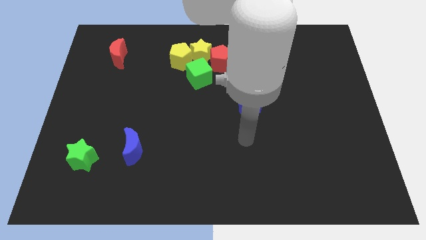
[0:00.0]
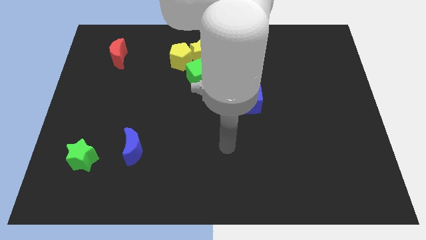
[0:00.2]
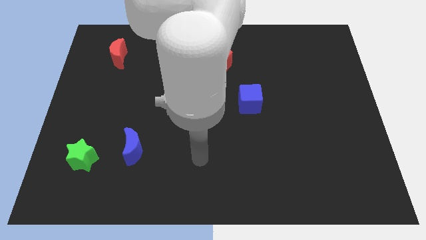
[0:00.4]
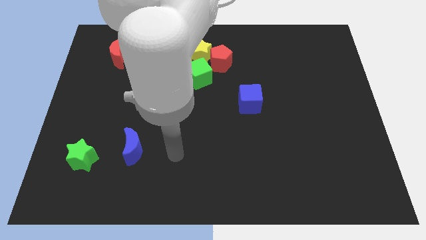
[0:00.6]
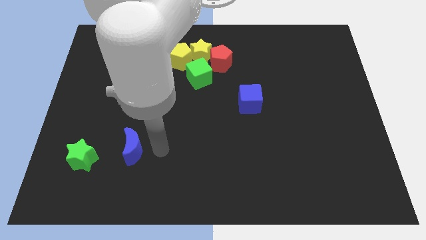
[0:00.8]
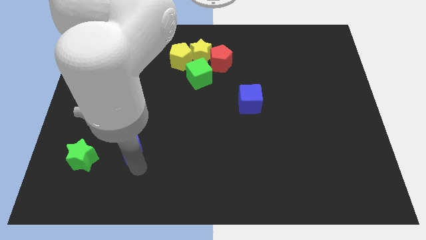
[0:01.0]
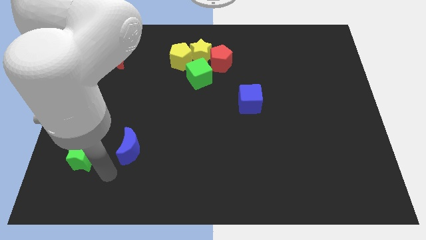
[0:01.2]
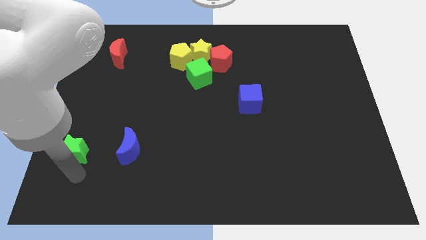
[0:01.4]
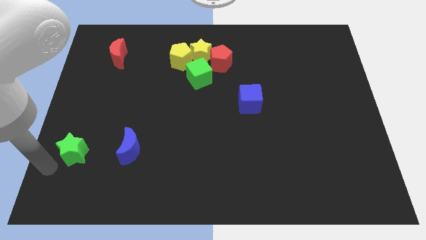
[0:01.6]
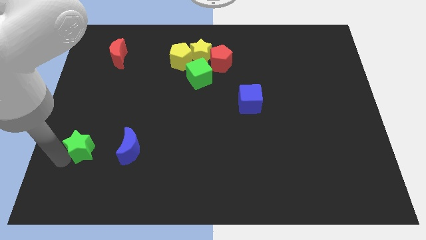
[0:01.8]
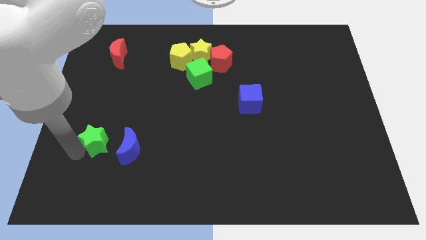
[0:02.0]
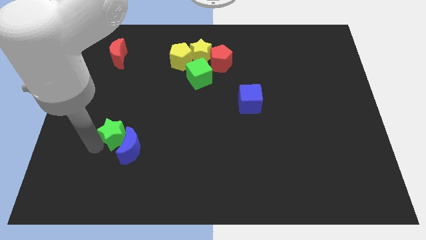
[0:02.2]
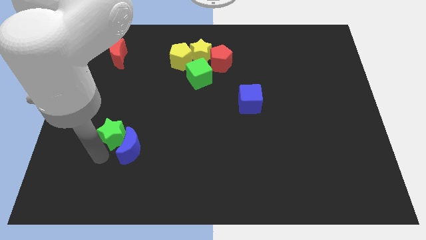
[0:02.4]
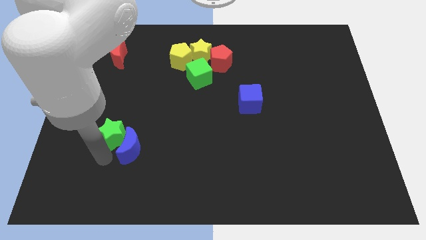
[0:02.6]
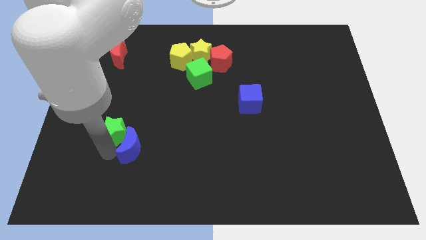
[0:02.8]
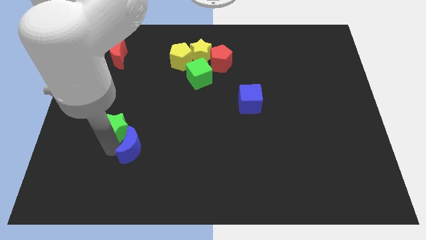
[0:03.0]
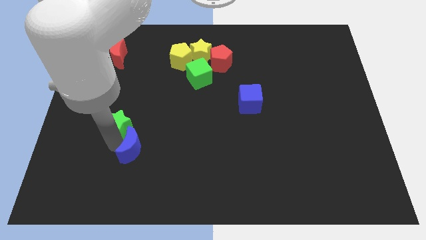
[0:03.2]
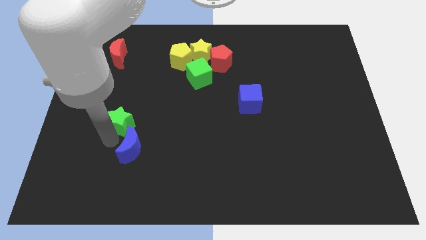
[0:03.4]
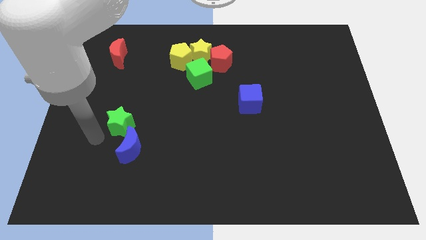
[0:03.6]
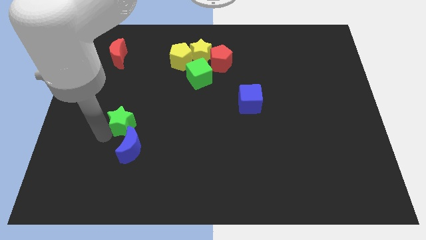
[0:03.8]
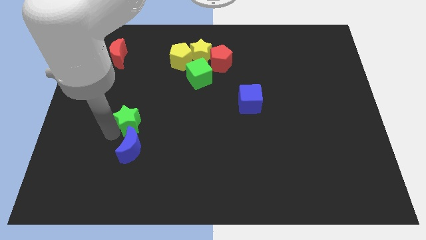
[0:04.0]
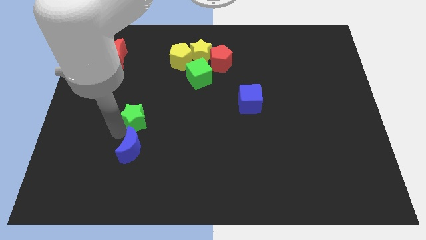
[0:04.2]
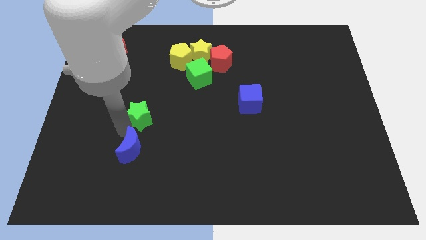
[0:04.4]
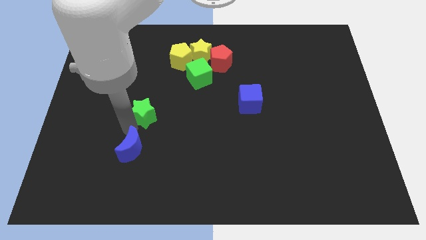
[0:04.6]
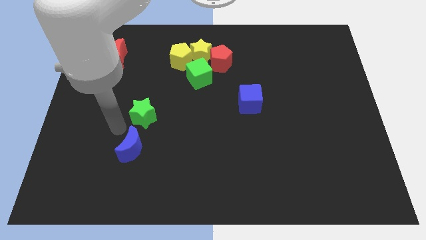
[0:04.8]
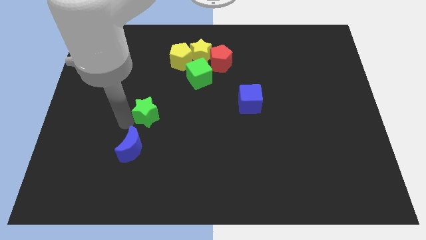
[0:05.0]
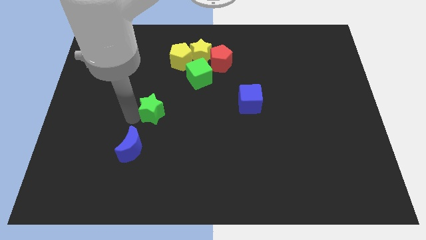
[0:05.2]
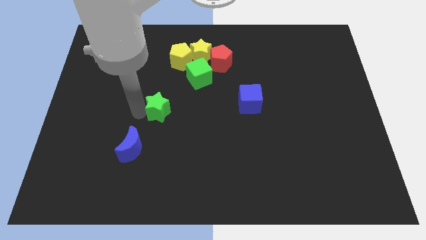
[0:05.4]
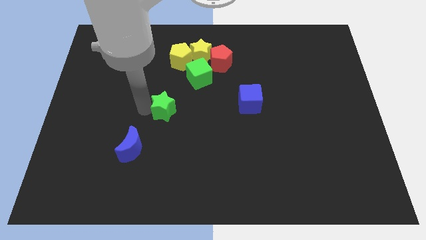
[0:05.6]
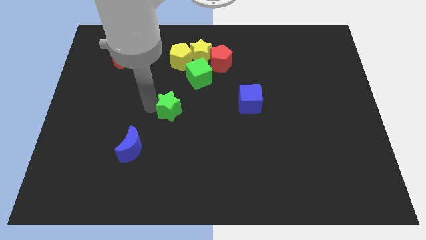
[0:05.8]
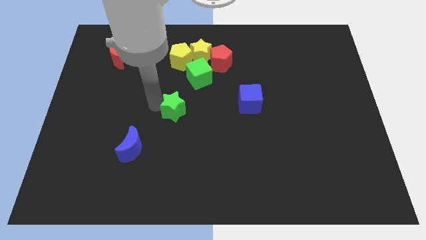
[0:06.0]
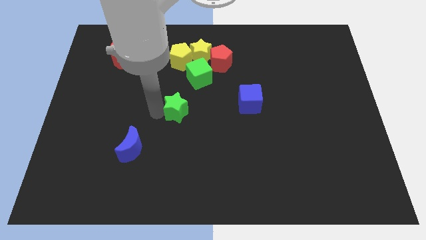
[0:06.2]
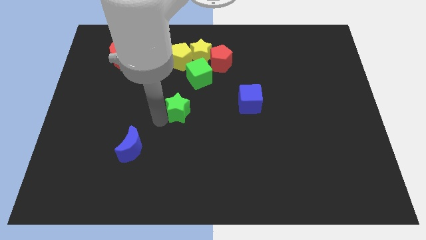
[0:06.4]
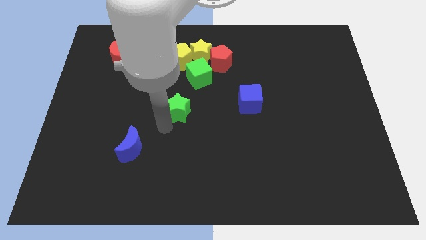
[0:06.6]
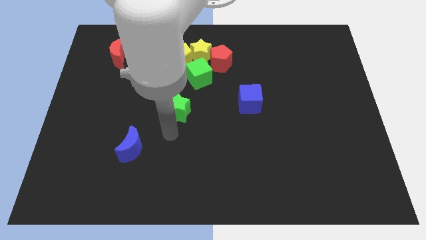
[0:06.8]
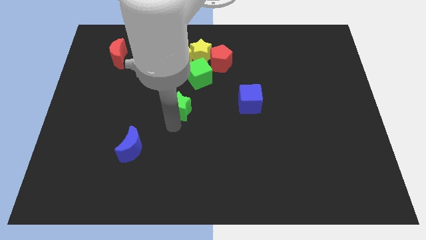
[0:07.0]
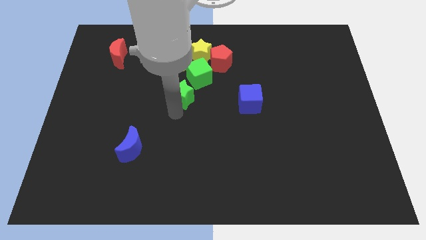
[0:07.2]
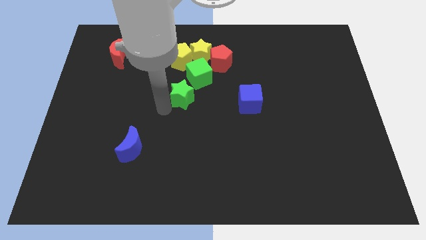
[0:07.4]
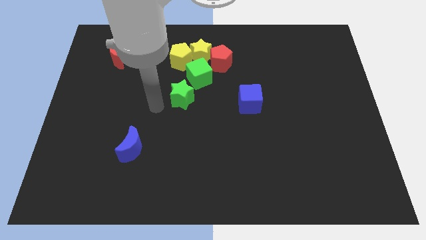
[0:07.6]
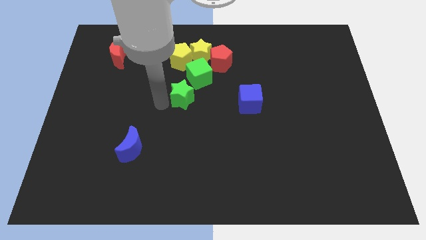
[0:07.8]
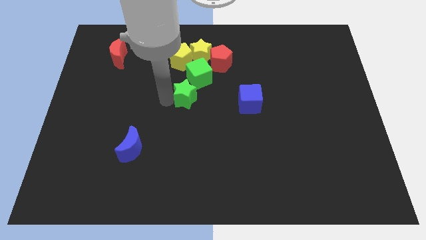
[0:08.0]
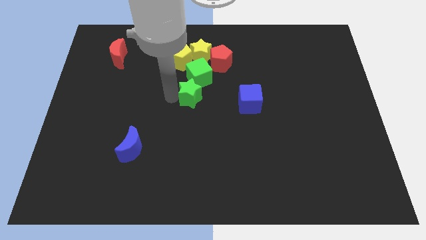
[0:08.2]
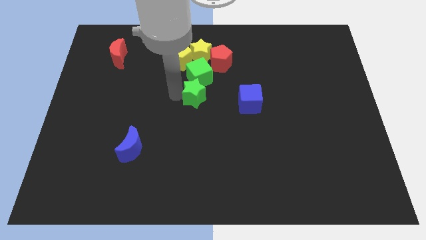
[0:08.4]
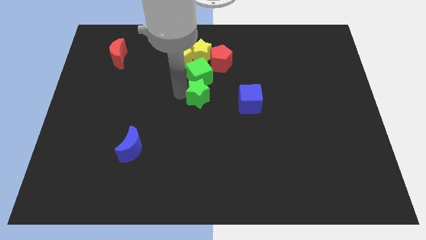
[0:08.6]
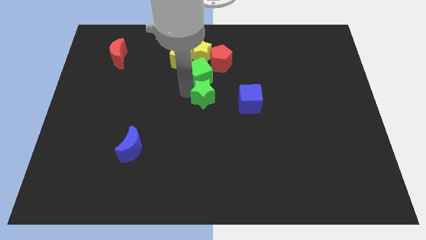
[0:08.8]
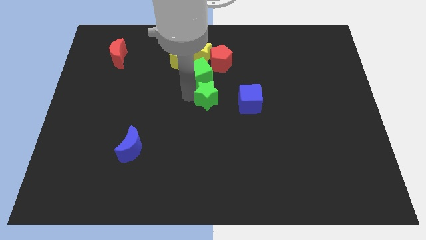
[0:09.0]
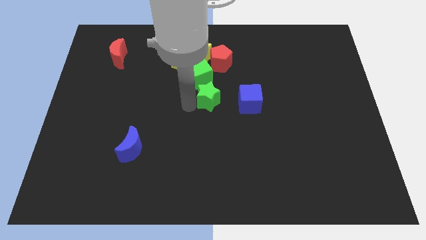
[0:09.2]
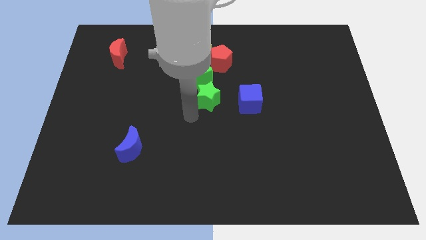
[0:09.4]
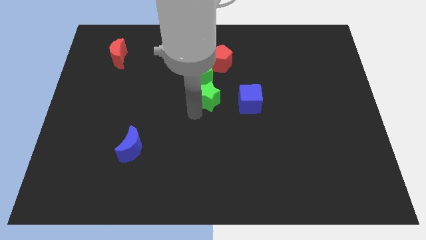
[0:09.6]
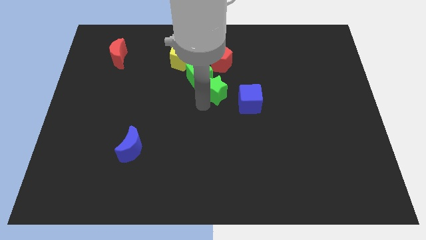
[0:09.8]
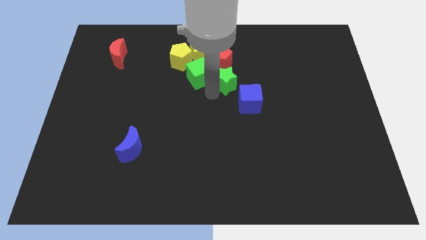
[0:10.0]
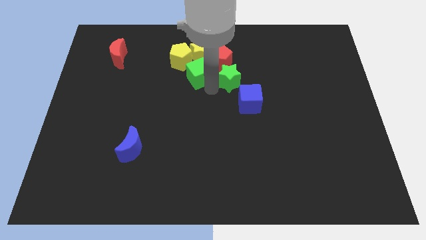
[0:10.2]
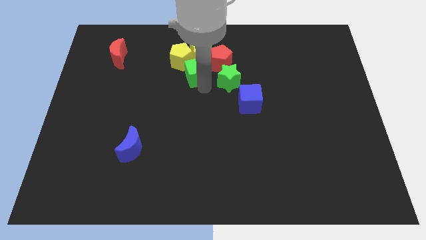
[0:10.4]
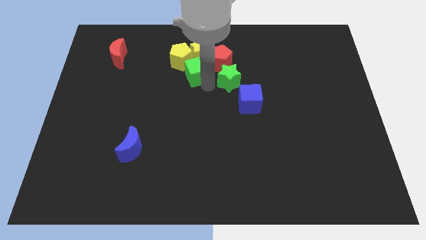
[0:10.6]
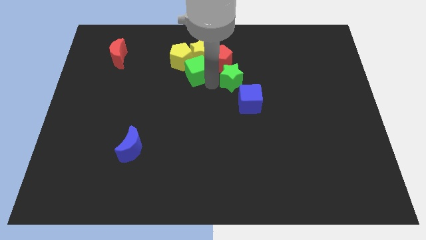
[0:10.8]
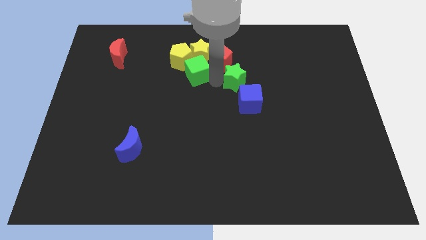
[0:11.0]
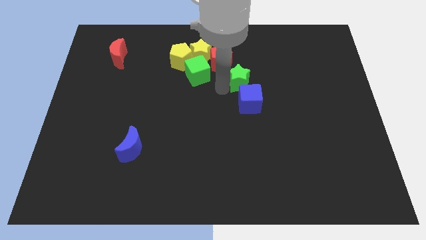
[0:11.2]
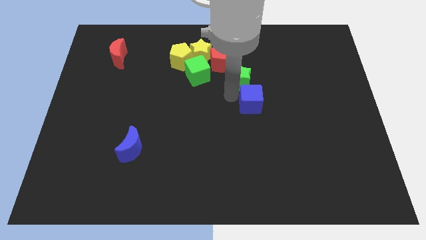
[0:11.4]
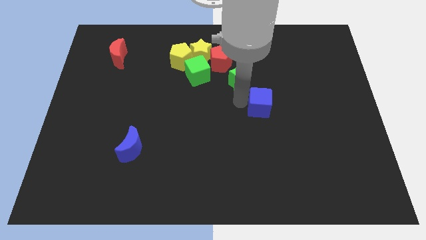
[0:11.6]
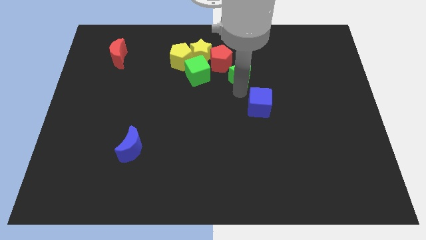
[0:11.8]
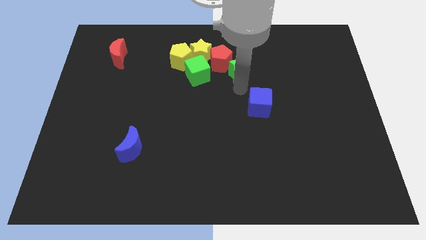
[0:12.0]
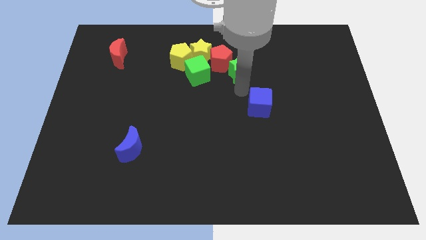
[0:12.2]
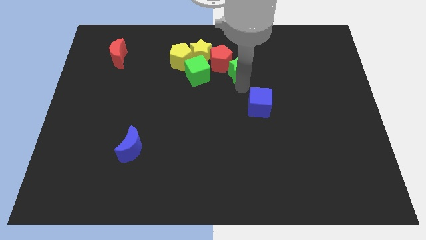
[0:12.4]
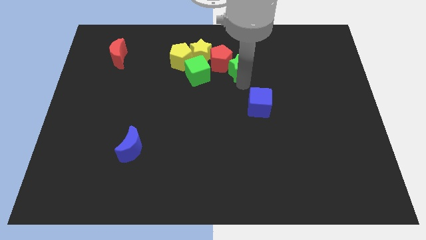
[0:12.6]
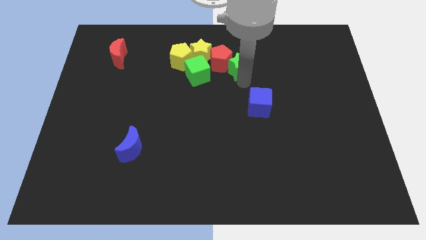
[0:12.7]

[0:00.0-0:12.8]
push the green star just right of the yellow pentagon
